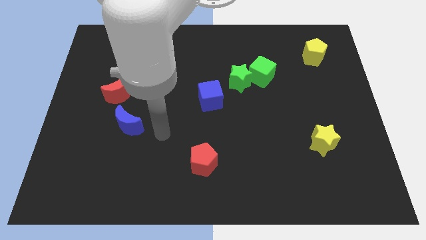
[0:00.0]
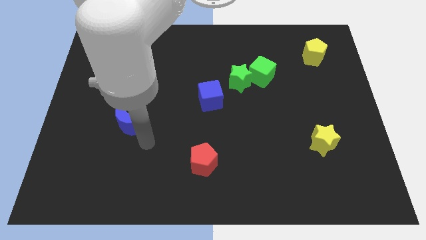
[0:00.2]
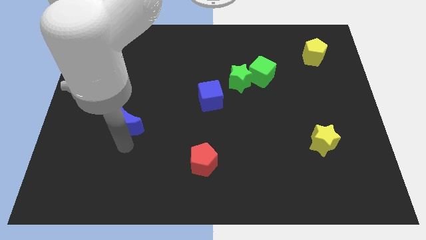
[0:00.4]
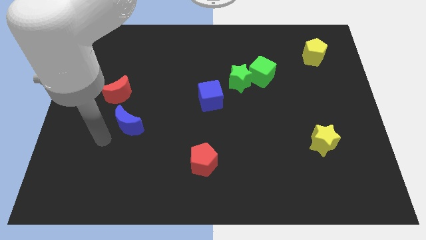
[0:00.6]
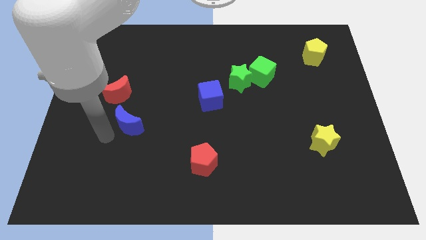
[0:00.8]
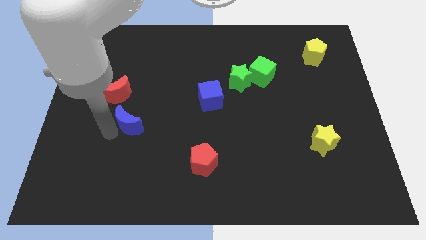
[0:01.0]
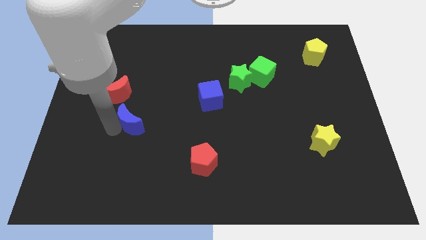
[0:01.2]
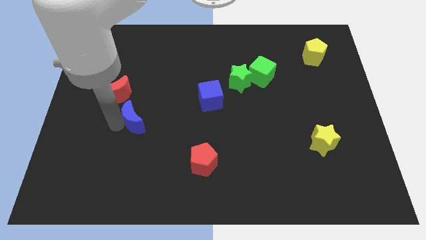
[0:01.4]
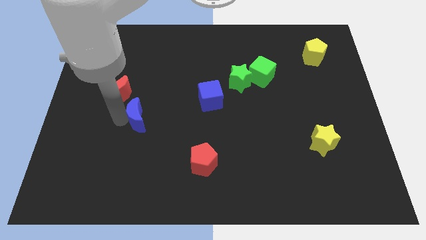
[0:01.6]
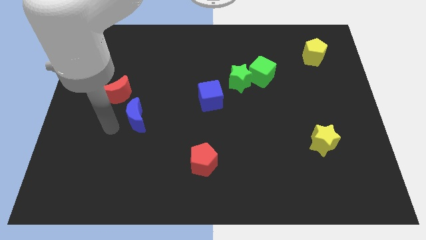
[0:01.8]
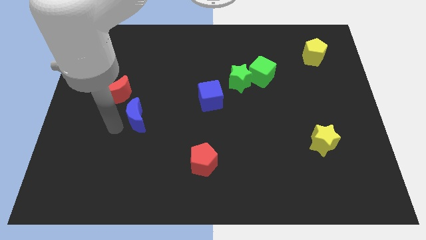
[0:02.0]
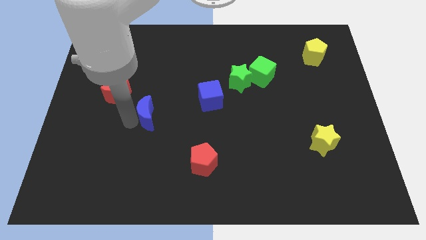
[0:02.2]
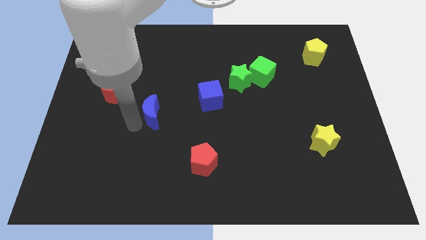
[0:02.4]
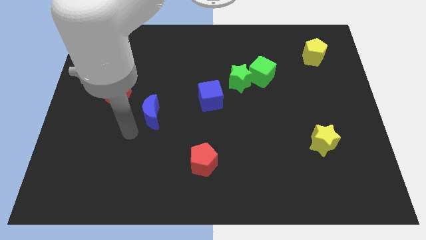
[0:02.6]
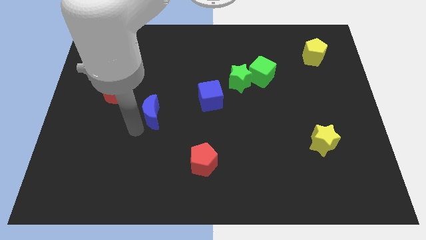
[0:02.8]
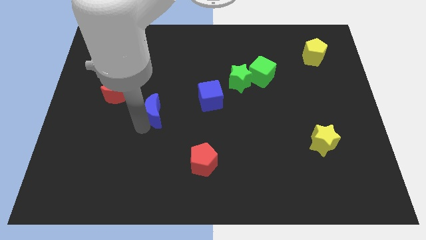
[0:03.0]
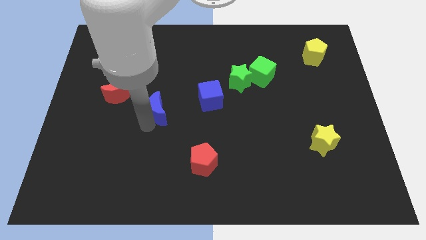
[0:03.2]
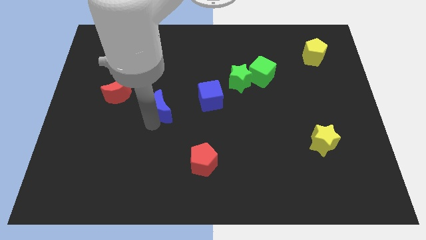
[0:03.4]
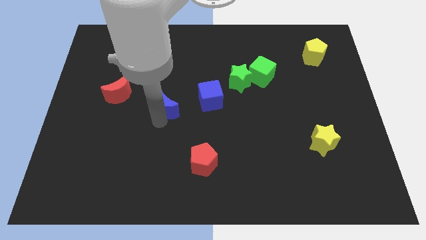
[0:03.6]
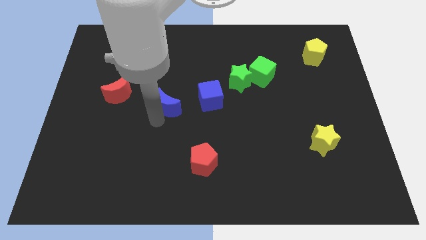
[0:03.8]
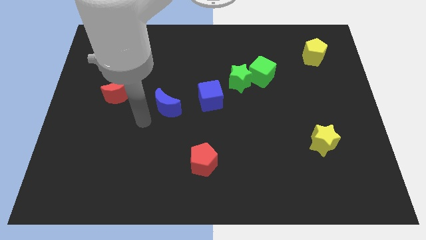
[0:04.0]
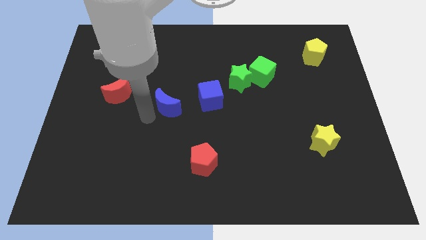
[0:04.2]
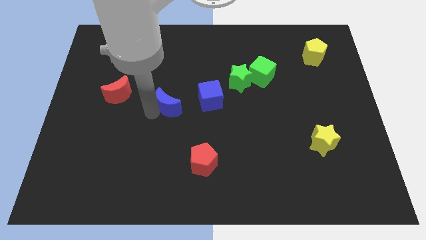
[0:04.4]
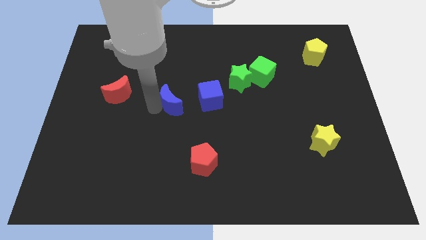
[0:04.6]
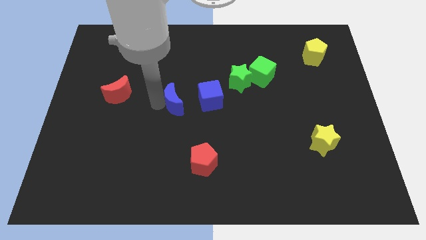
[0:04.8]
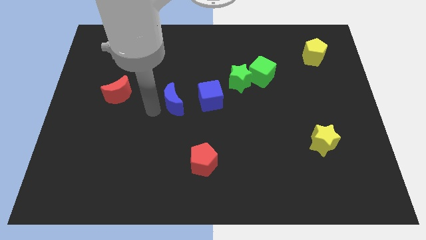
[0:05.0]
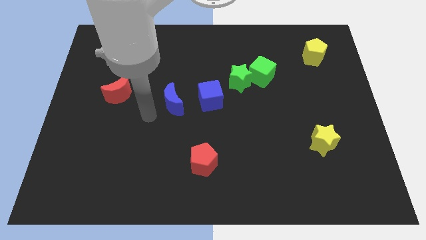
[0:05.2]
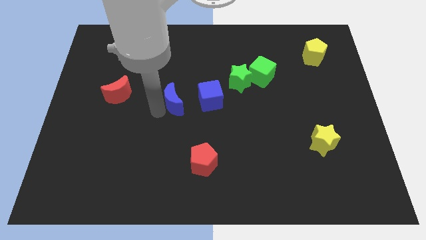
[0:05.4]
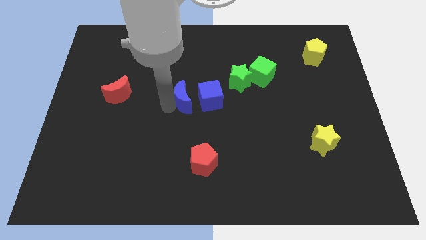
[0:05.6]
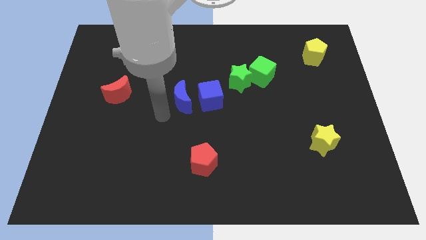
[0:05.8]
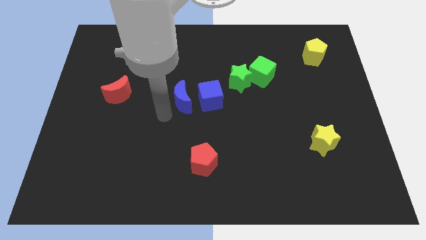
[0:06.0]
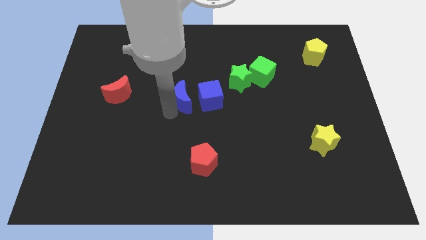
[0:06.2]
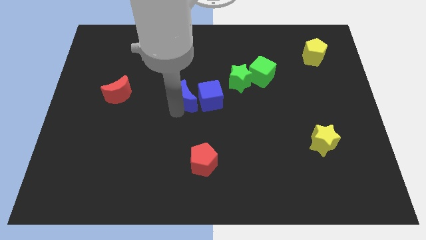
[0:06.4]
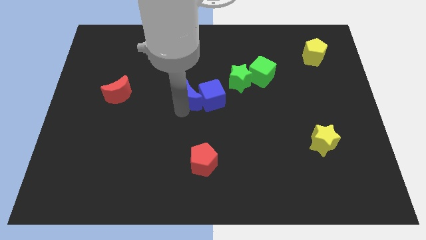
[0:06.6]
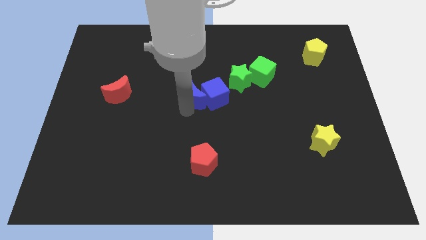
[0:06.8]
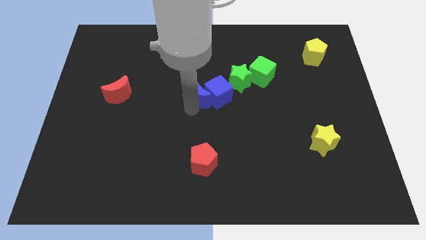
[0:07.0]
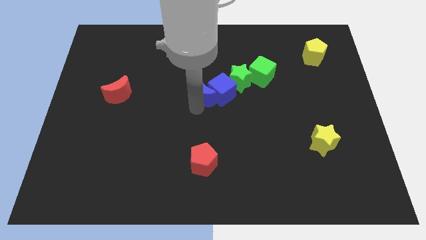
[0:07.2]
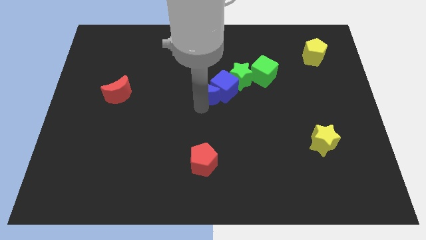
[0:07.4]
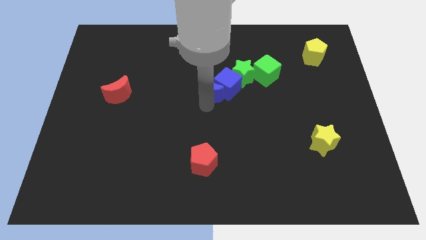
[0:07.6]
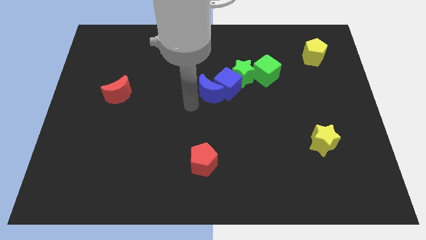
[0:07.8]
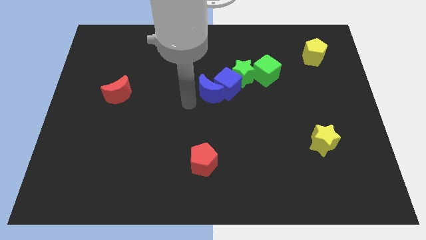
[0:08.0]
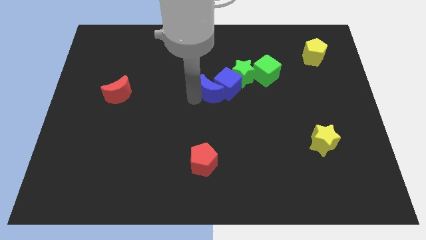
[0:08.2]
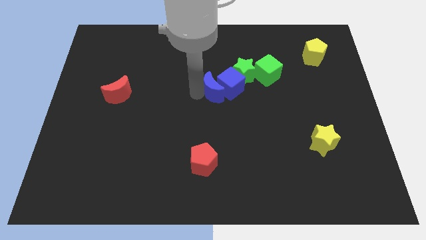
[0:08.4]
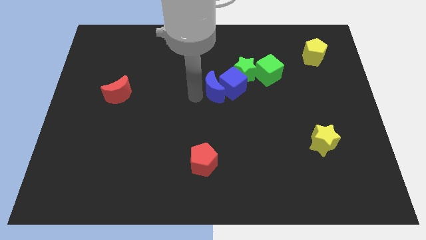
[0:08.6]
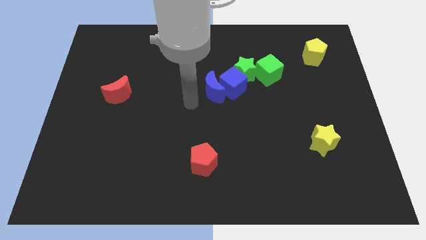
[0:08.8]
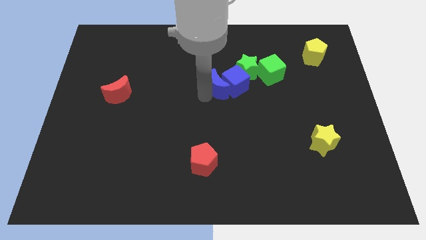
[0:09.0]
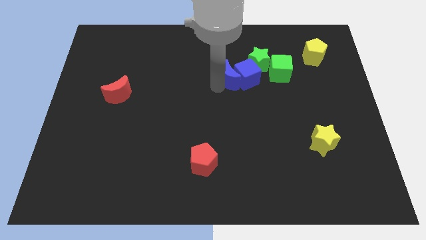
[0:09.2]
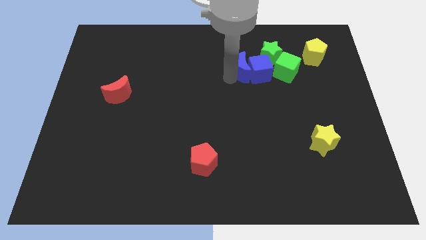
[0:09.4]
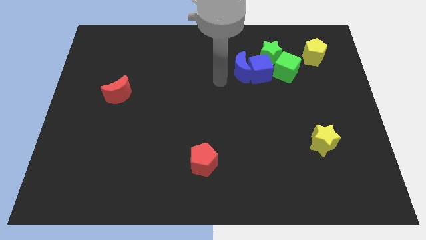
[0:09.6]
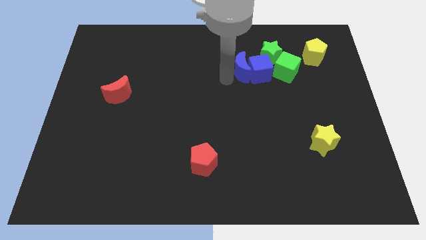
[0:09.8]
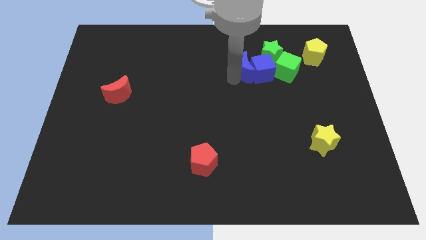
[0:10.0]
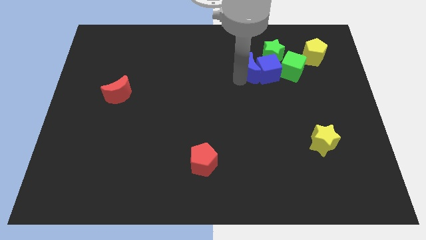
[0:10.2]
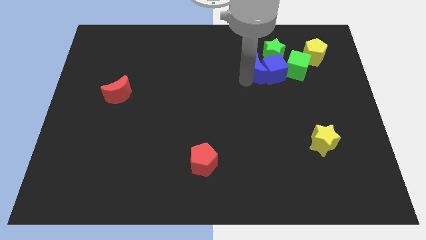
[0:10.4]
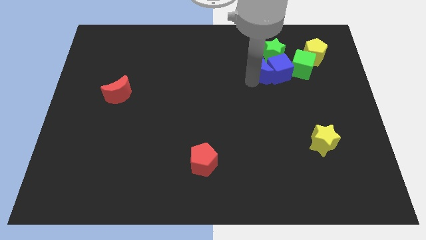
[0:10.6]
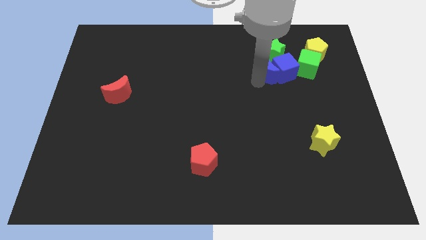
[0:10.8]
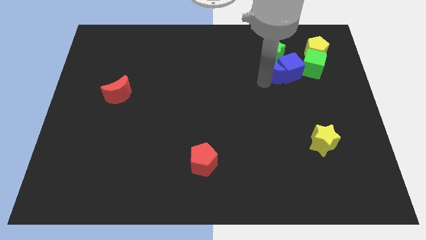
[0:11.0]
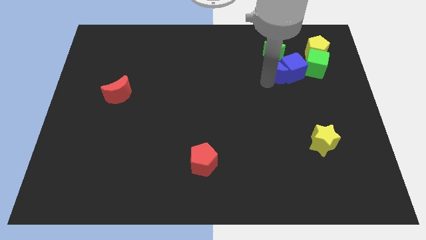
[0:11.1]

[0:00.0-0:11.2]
put the blue moon close to the green star

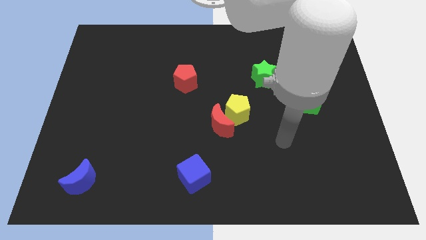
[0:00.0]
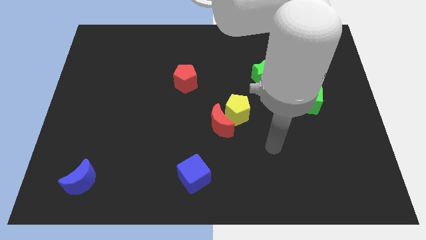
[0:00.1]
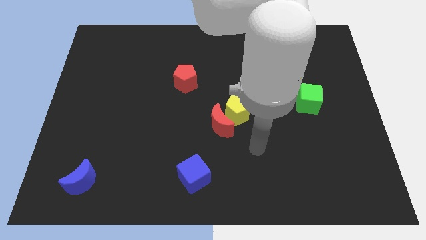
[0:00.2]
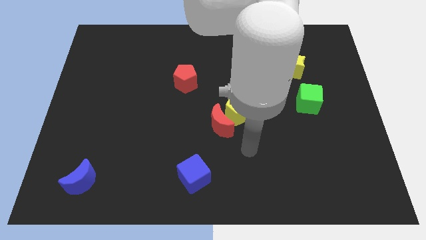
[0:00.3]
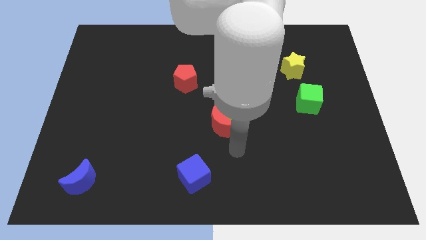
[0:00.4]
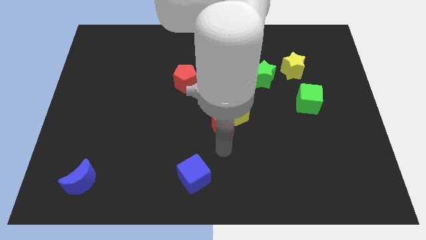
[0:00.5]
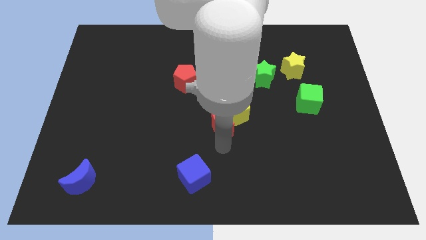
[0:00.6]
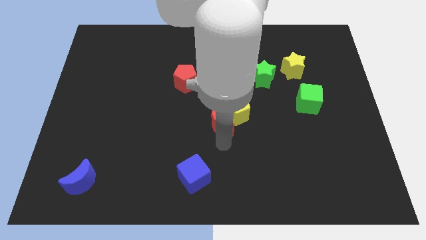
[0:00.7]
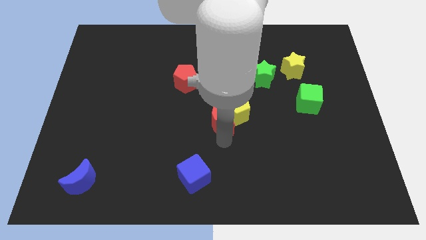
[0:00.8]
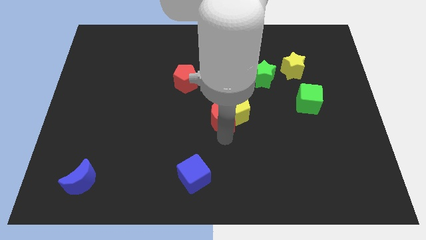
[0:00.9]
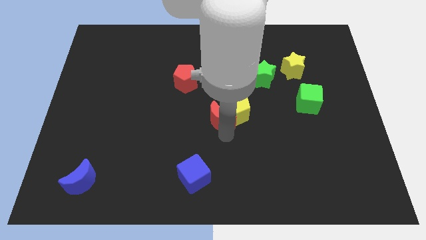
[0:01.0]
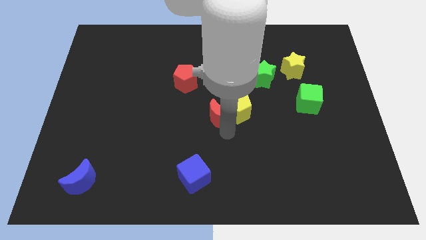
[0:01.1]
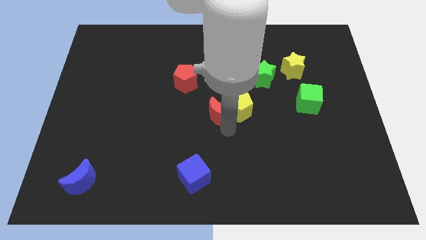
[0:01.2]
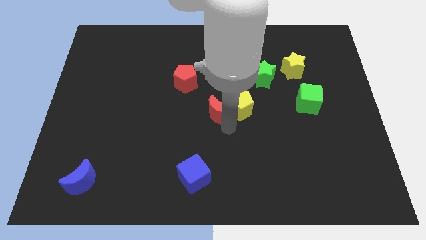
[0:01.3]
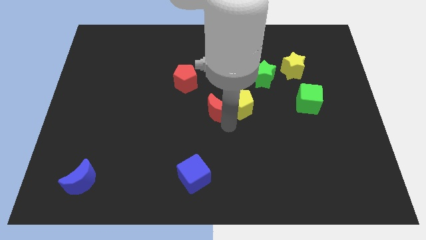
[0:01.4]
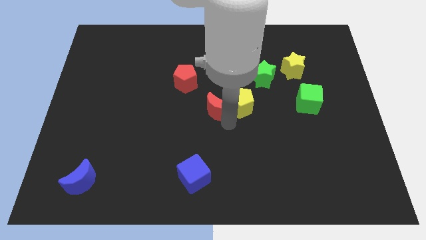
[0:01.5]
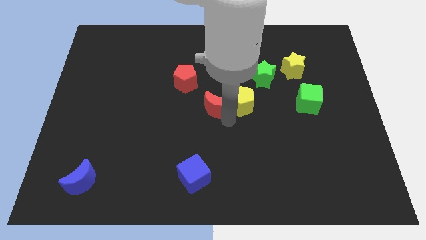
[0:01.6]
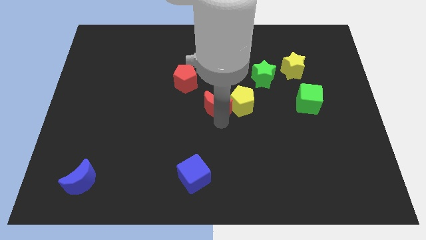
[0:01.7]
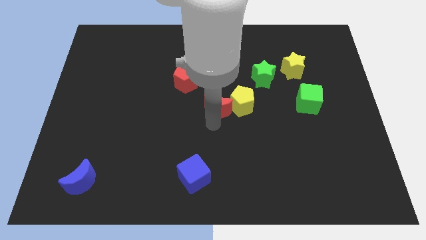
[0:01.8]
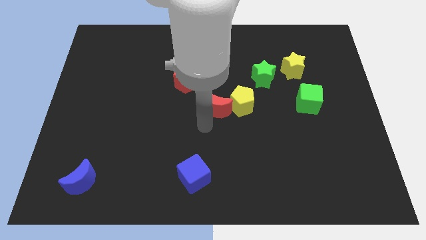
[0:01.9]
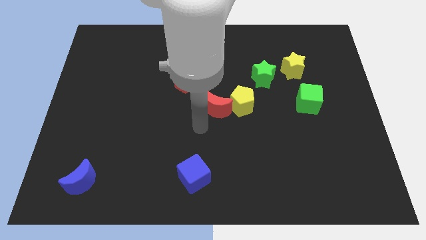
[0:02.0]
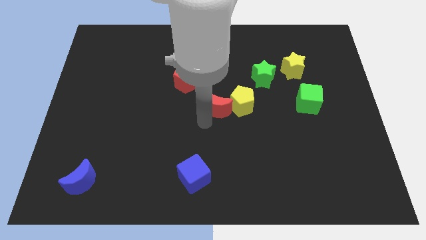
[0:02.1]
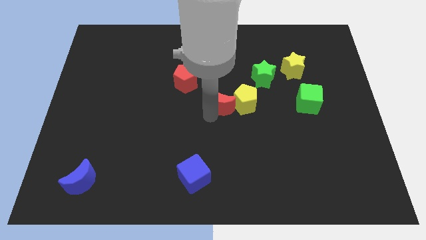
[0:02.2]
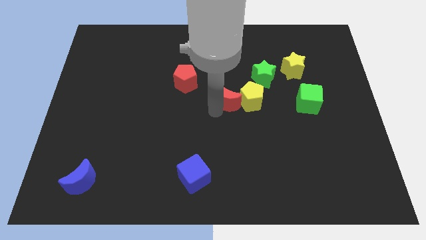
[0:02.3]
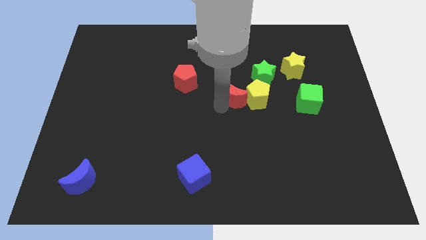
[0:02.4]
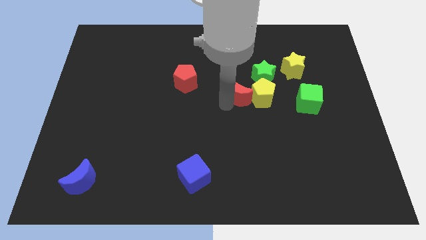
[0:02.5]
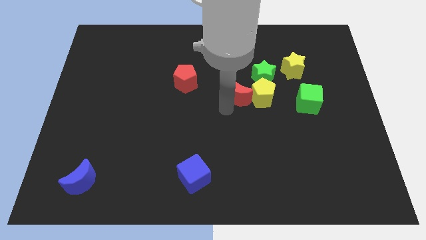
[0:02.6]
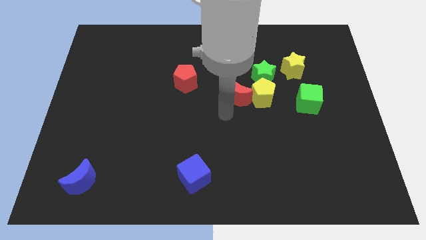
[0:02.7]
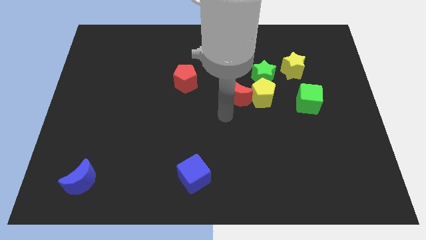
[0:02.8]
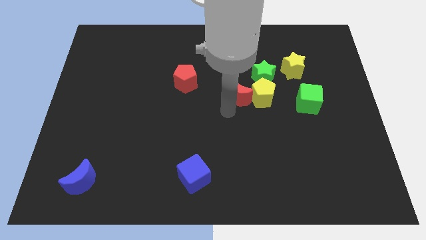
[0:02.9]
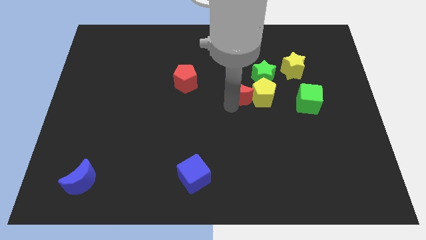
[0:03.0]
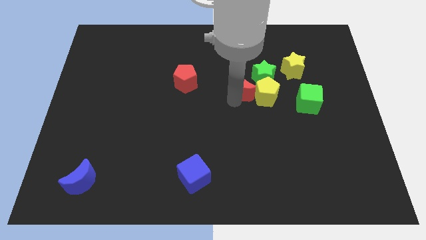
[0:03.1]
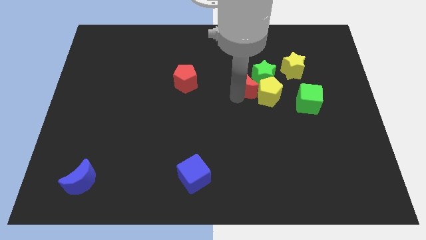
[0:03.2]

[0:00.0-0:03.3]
slide the red moon close to the green star
